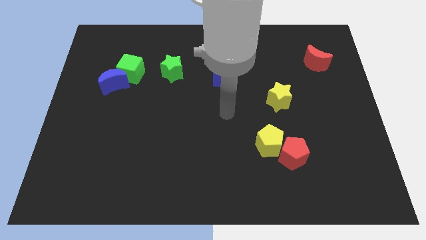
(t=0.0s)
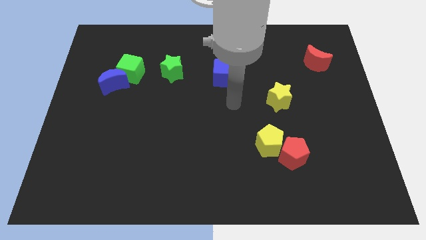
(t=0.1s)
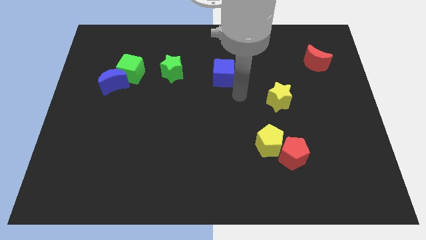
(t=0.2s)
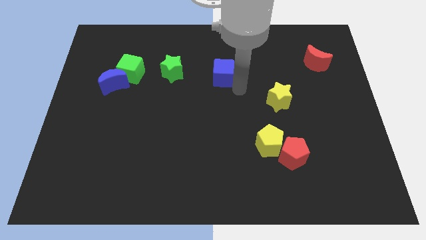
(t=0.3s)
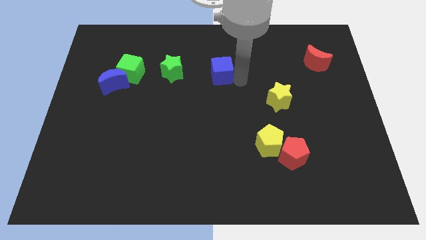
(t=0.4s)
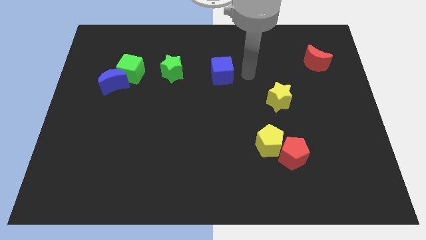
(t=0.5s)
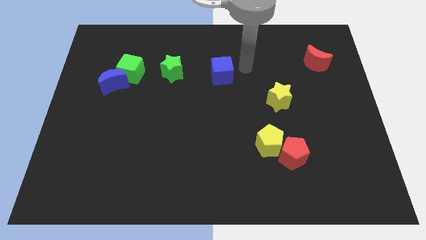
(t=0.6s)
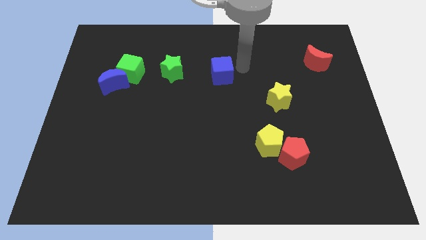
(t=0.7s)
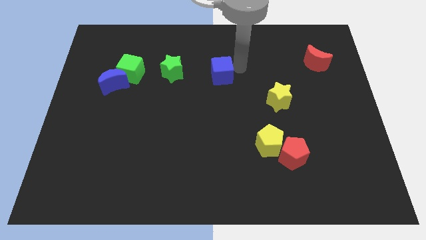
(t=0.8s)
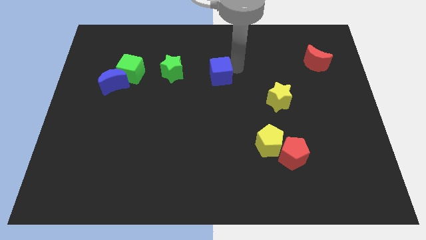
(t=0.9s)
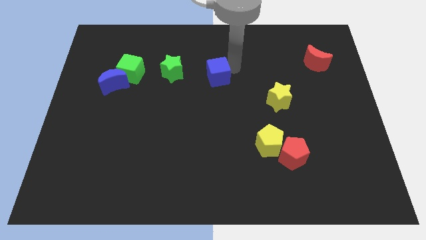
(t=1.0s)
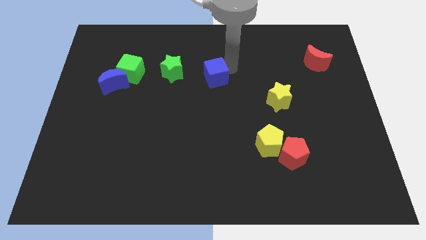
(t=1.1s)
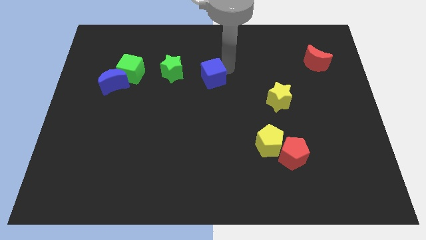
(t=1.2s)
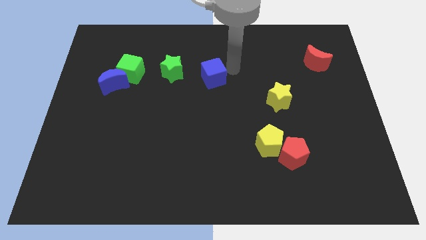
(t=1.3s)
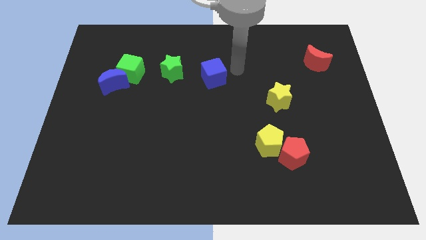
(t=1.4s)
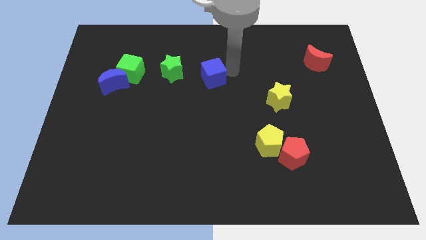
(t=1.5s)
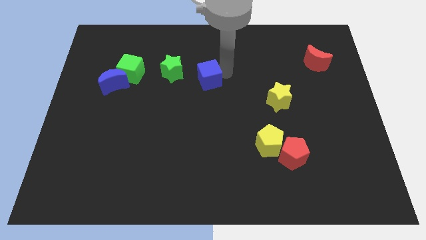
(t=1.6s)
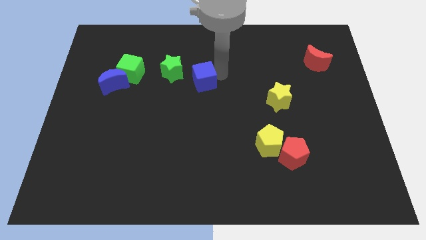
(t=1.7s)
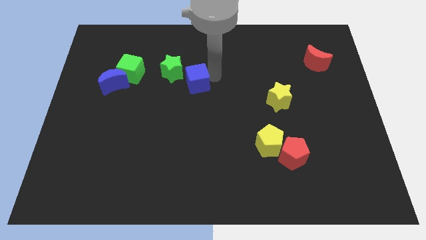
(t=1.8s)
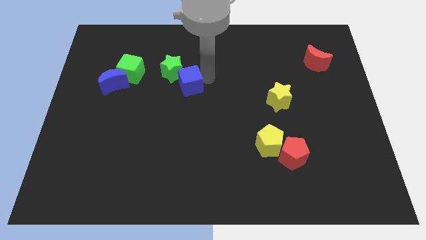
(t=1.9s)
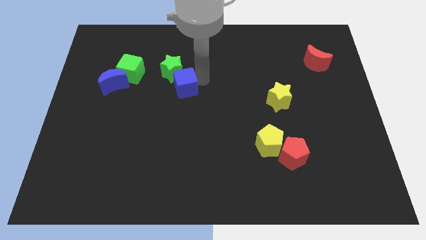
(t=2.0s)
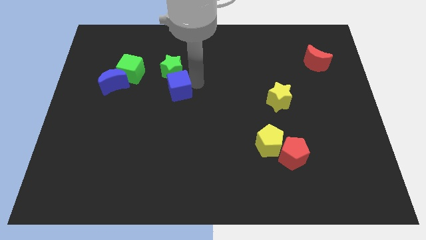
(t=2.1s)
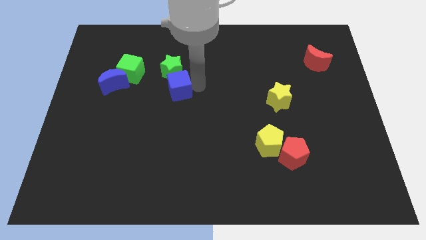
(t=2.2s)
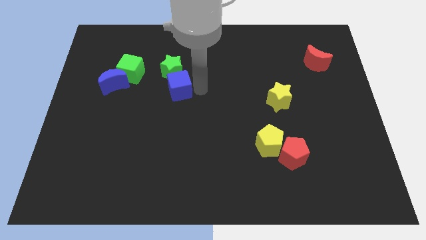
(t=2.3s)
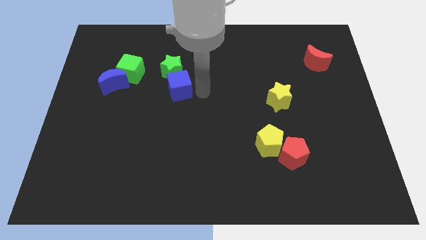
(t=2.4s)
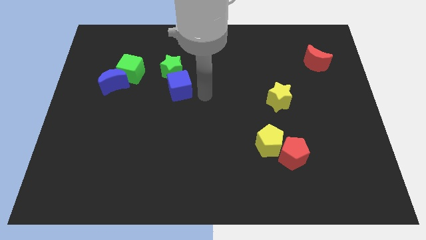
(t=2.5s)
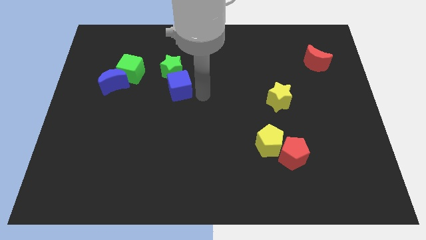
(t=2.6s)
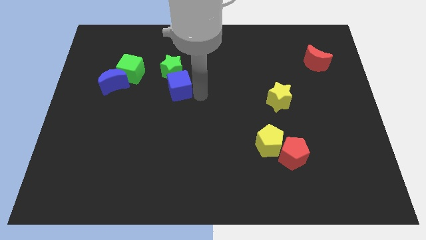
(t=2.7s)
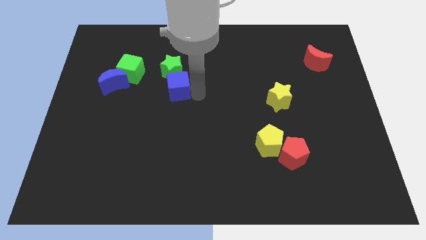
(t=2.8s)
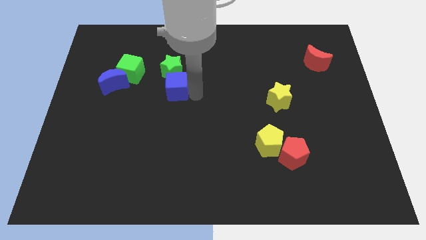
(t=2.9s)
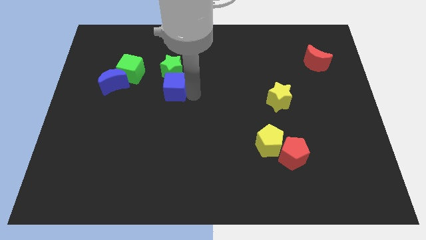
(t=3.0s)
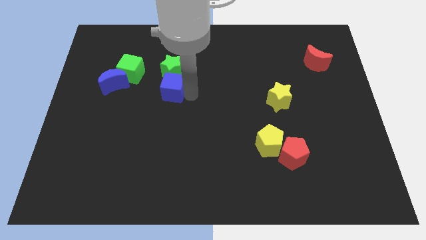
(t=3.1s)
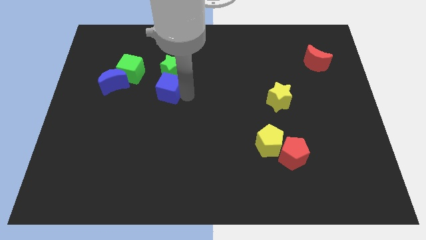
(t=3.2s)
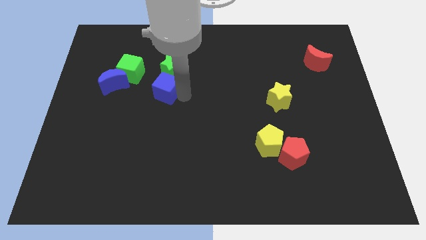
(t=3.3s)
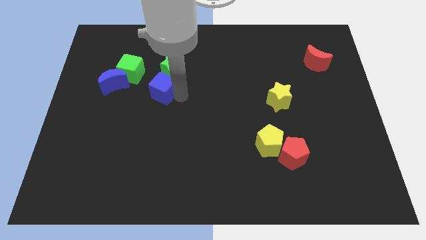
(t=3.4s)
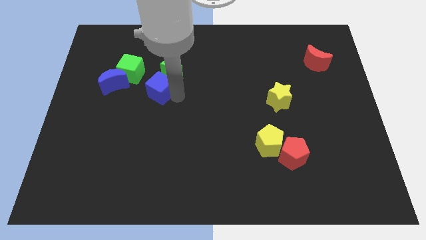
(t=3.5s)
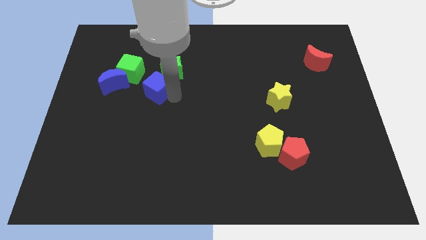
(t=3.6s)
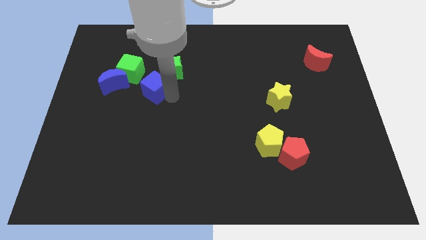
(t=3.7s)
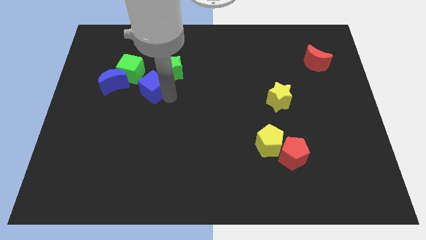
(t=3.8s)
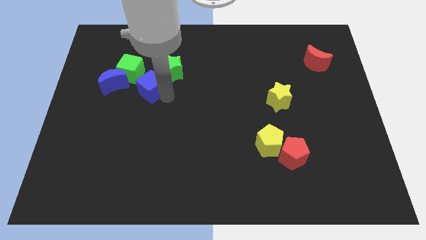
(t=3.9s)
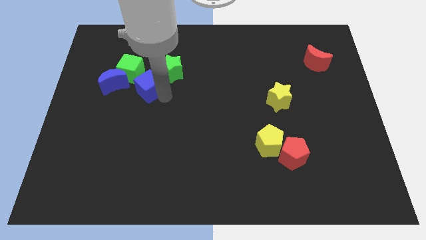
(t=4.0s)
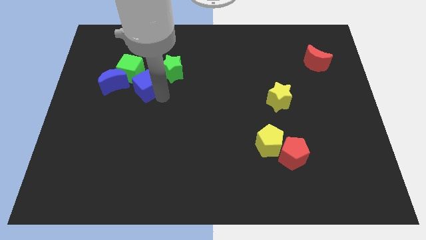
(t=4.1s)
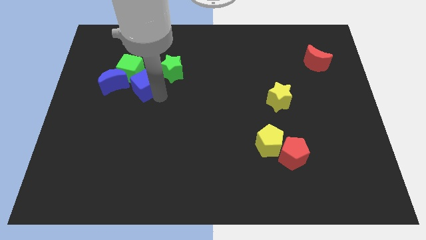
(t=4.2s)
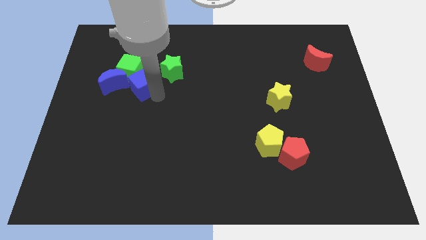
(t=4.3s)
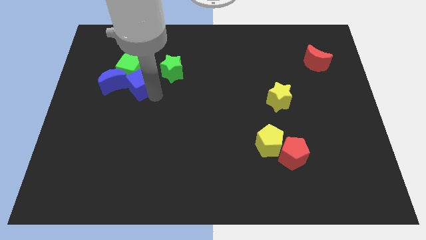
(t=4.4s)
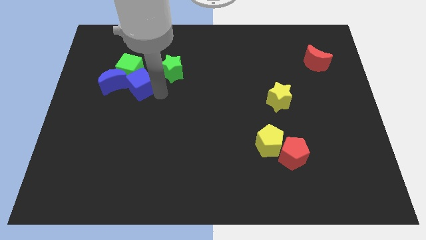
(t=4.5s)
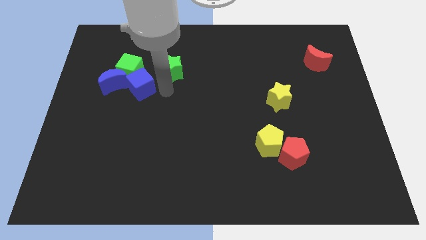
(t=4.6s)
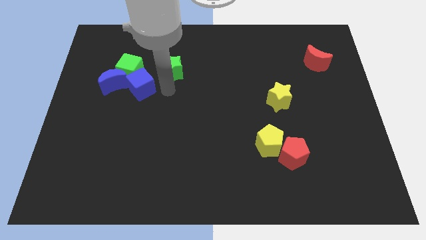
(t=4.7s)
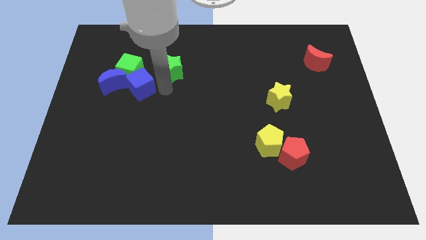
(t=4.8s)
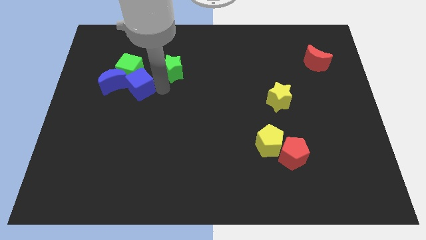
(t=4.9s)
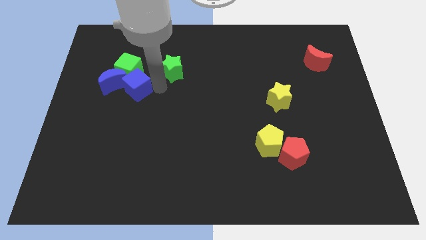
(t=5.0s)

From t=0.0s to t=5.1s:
move the blue cube towards the blue moon

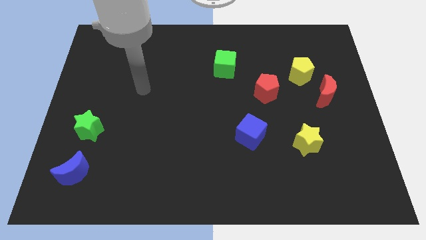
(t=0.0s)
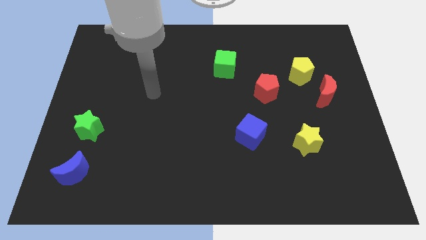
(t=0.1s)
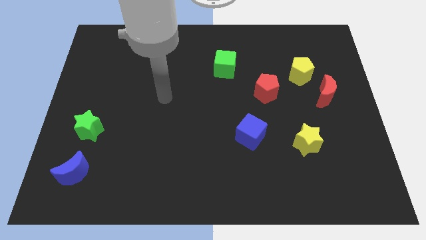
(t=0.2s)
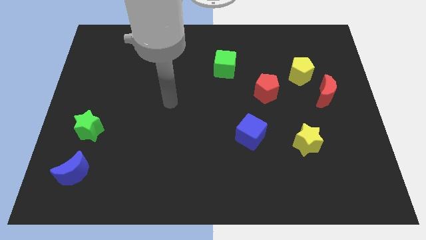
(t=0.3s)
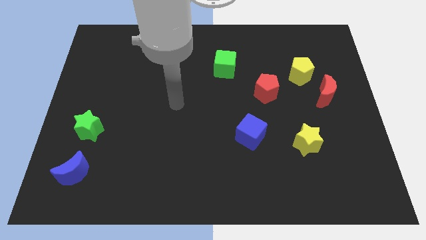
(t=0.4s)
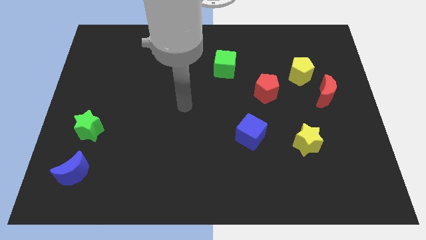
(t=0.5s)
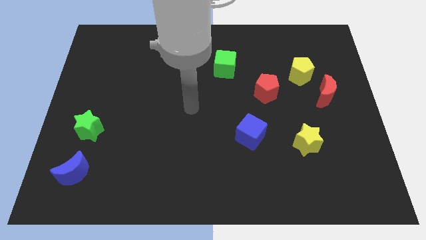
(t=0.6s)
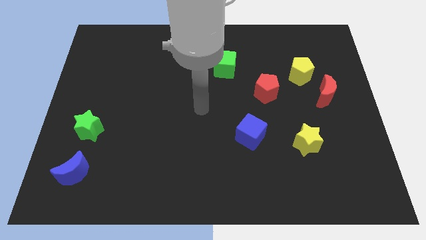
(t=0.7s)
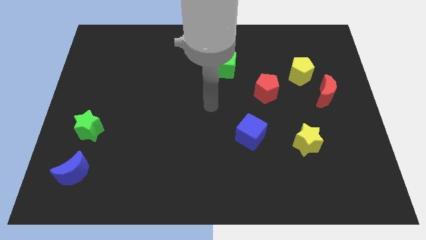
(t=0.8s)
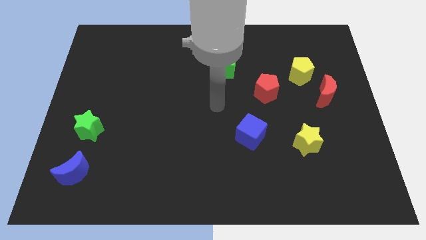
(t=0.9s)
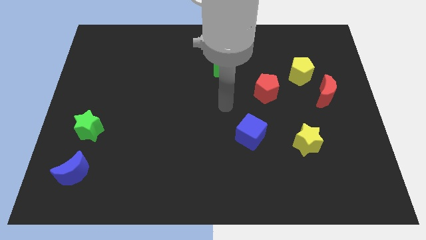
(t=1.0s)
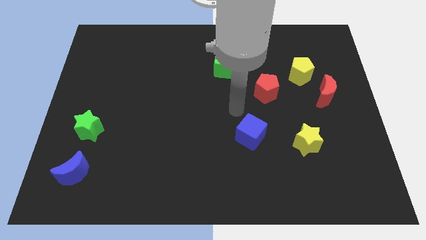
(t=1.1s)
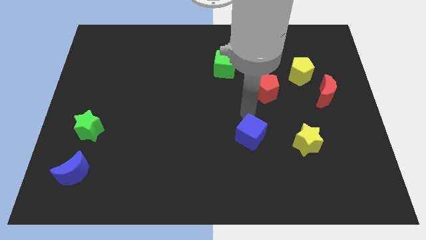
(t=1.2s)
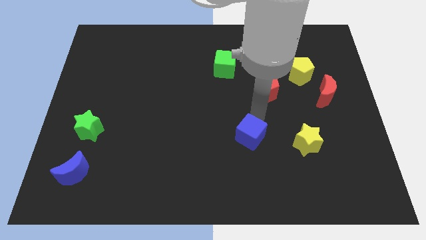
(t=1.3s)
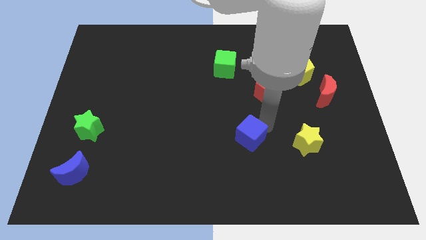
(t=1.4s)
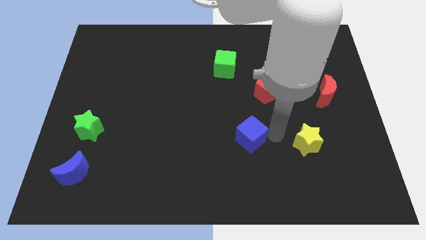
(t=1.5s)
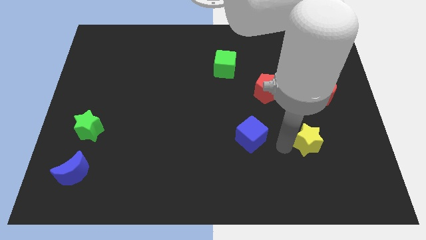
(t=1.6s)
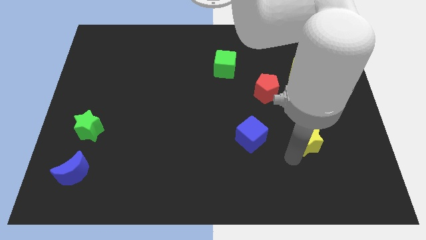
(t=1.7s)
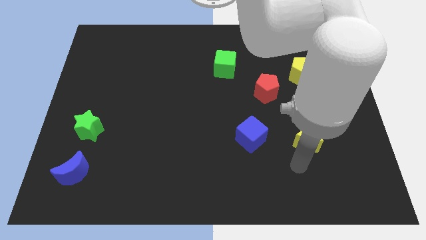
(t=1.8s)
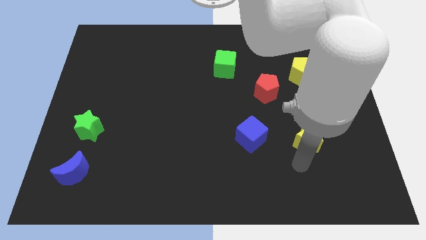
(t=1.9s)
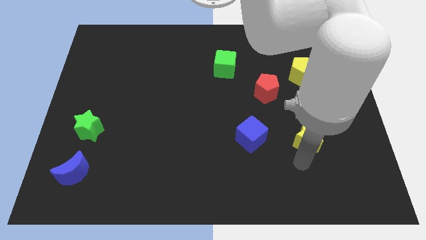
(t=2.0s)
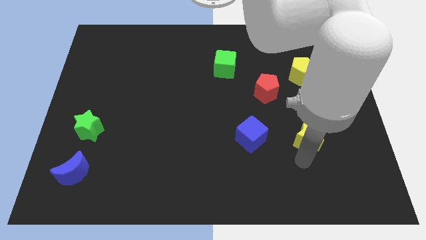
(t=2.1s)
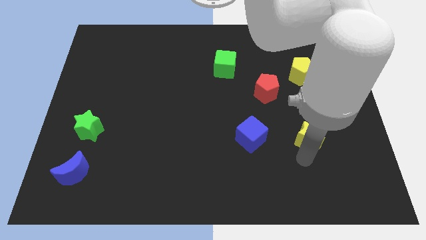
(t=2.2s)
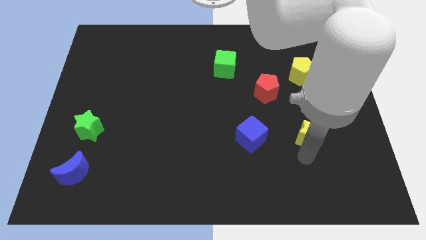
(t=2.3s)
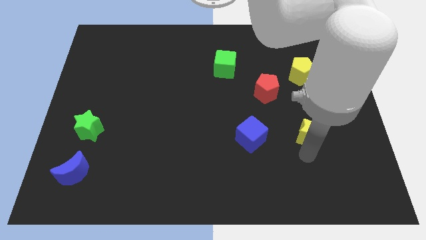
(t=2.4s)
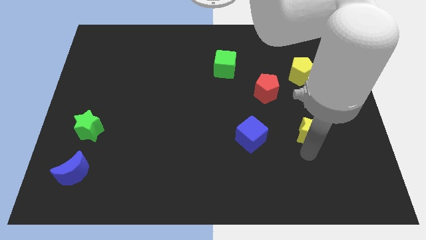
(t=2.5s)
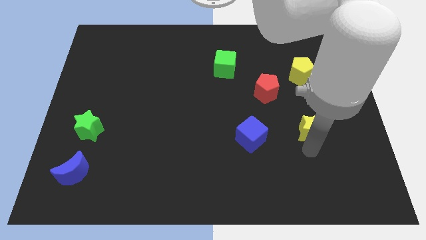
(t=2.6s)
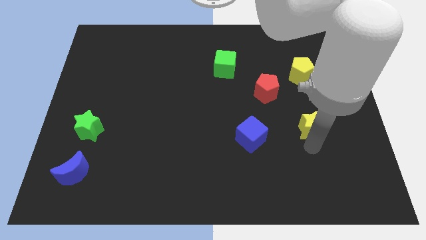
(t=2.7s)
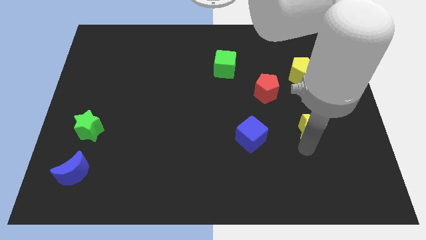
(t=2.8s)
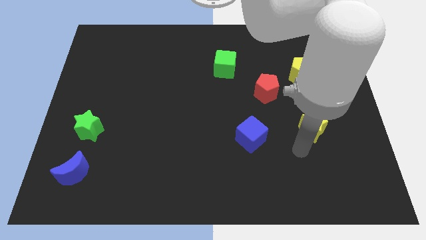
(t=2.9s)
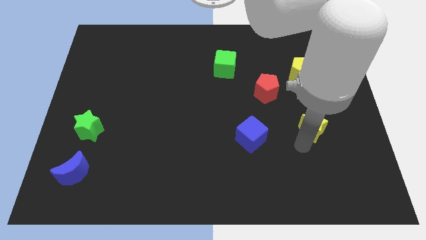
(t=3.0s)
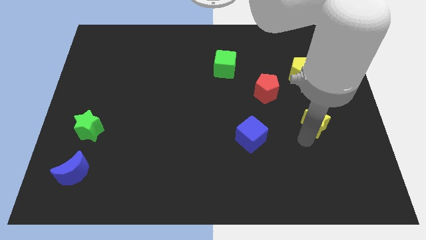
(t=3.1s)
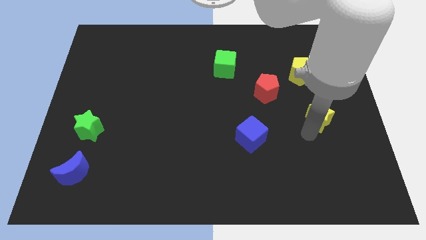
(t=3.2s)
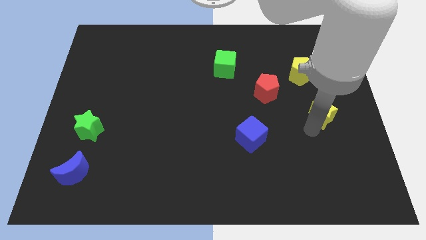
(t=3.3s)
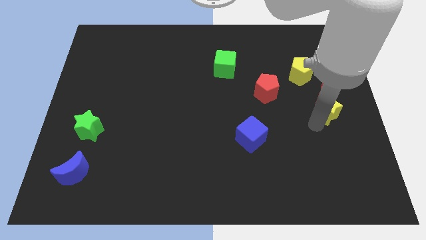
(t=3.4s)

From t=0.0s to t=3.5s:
push the yellow star towards the red moon
